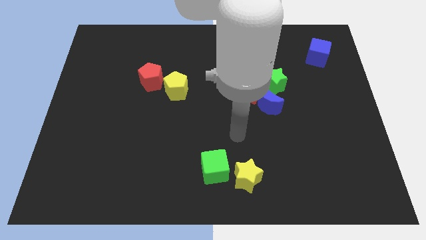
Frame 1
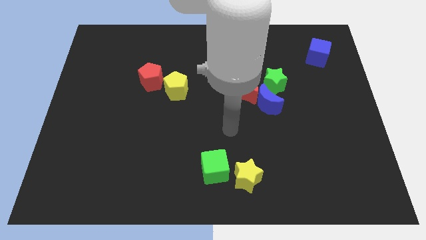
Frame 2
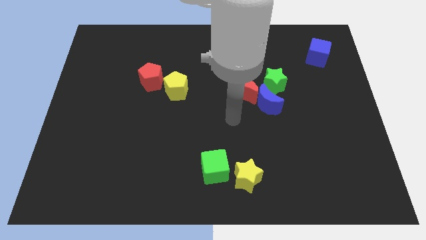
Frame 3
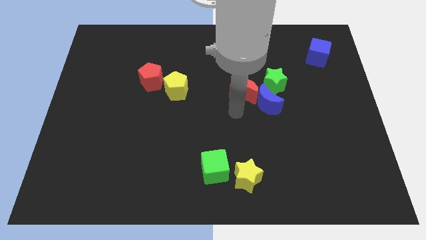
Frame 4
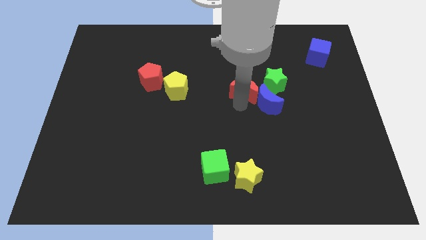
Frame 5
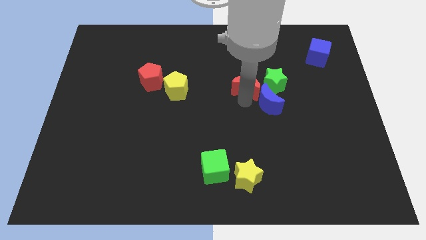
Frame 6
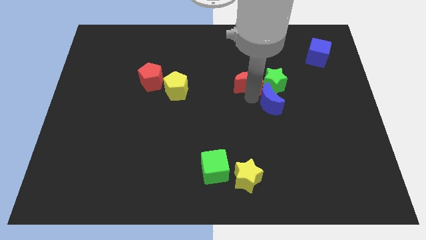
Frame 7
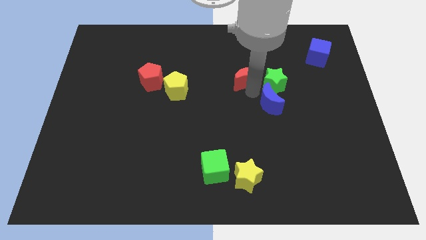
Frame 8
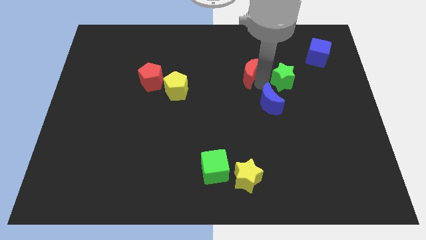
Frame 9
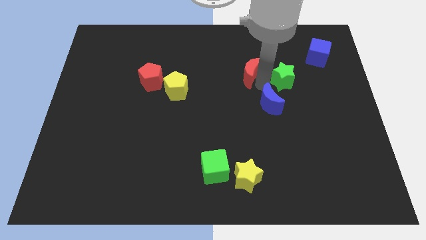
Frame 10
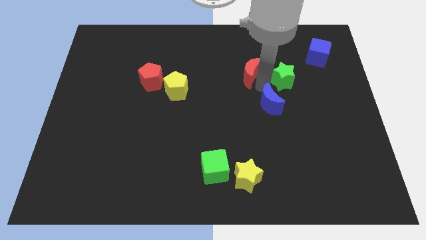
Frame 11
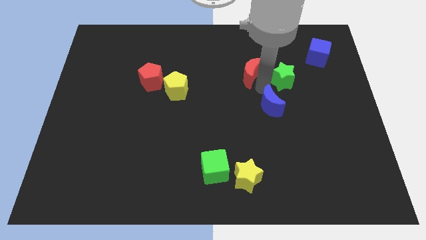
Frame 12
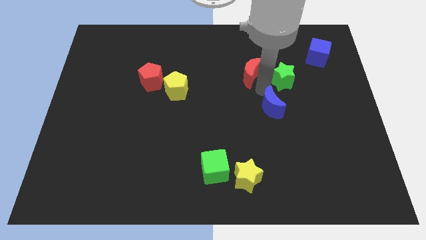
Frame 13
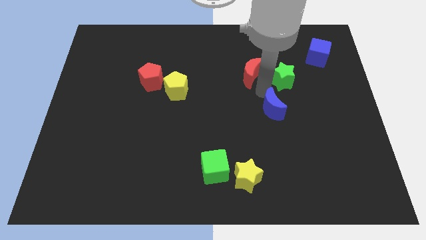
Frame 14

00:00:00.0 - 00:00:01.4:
move the blue moon away from the red moon and green star

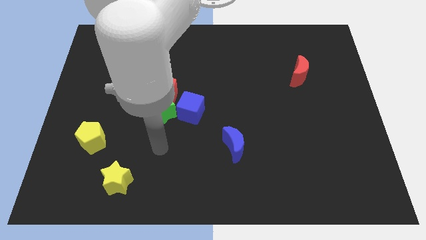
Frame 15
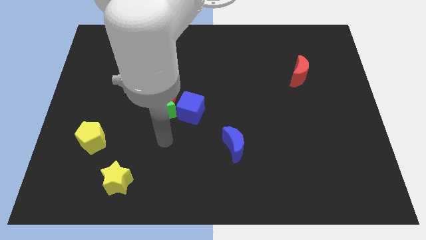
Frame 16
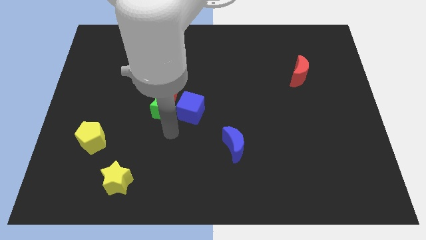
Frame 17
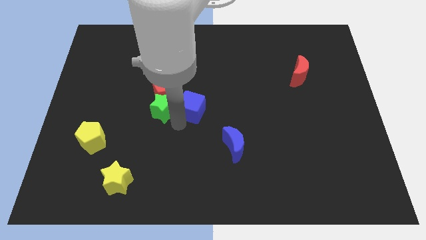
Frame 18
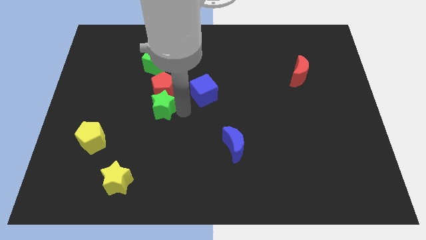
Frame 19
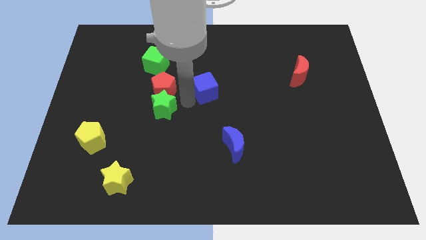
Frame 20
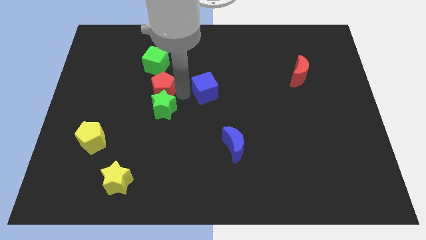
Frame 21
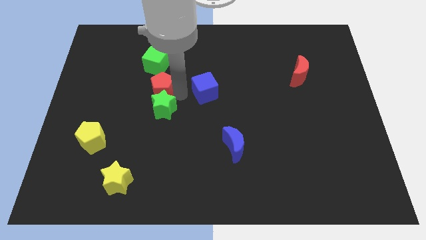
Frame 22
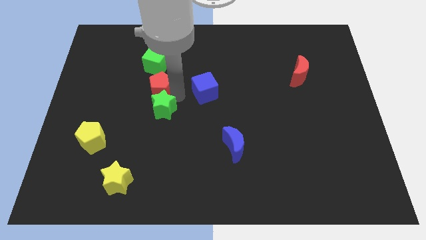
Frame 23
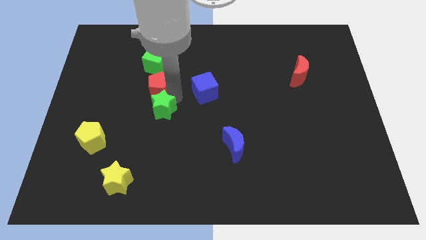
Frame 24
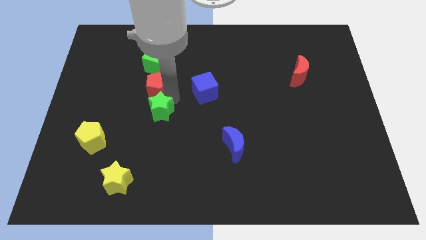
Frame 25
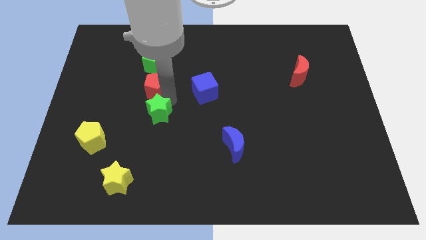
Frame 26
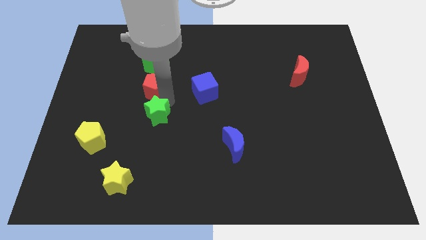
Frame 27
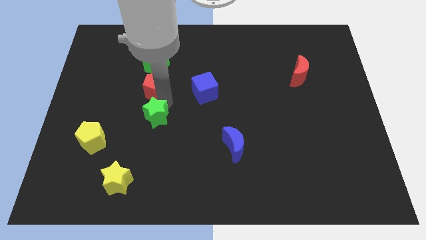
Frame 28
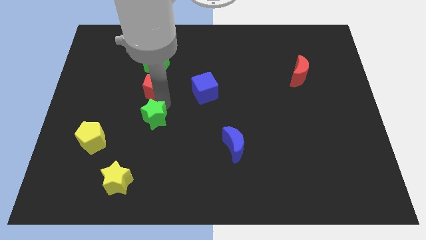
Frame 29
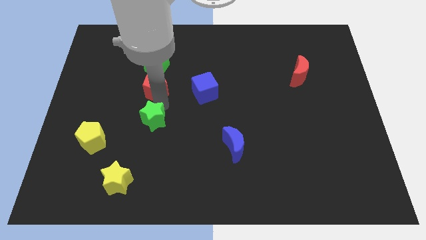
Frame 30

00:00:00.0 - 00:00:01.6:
pull the green star apart from the red pentagon and blue cube

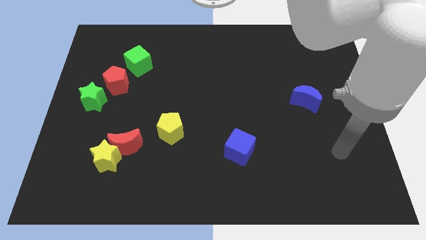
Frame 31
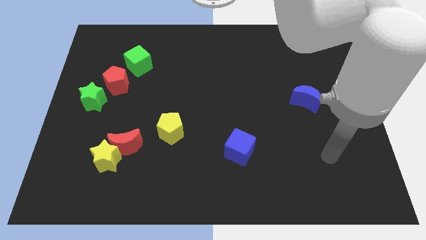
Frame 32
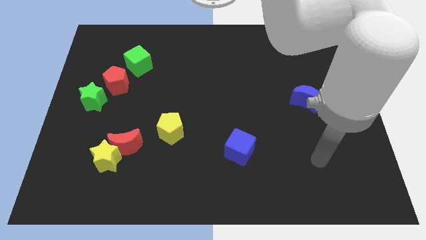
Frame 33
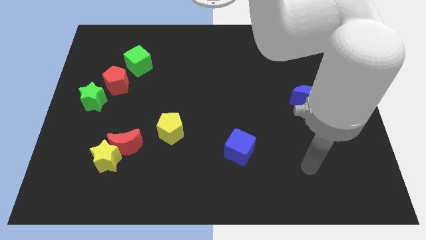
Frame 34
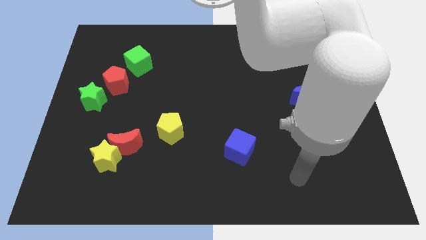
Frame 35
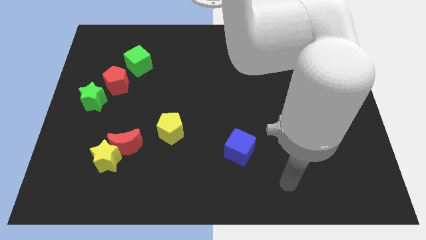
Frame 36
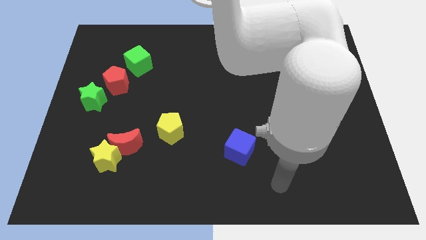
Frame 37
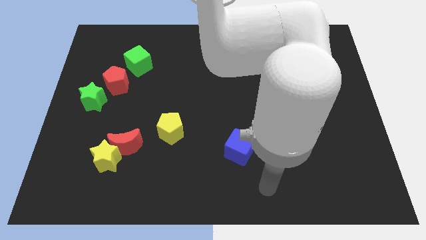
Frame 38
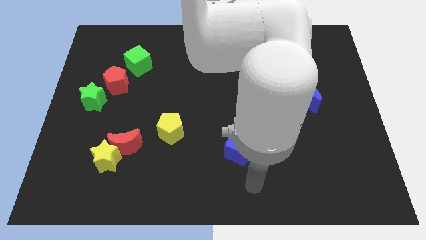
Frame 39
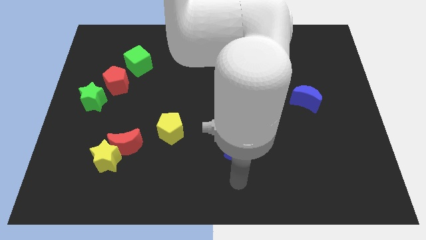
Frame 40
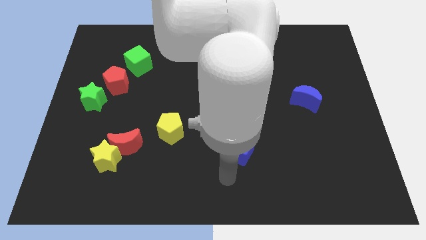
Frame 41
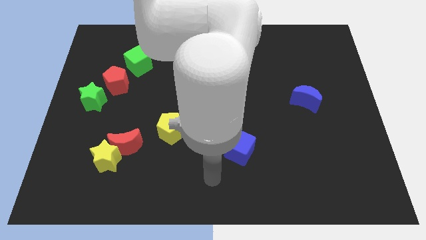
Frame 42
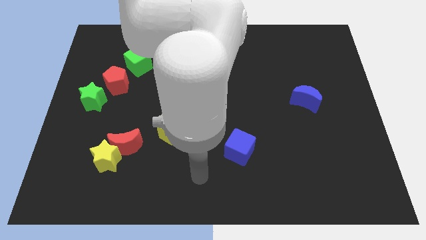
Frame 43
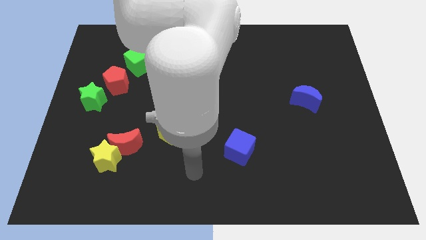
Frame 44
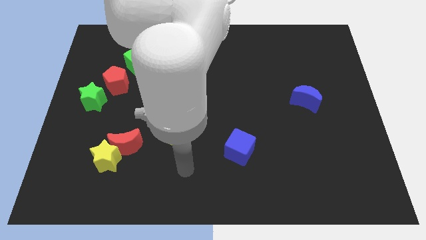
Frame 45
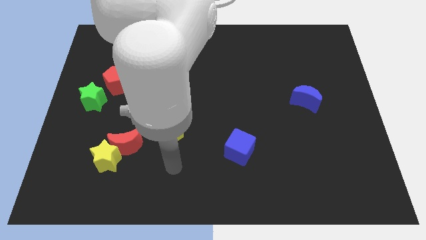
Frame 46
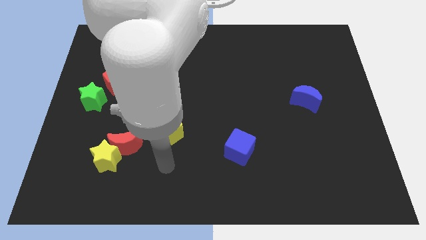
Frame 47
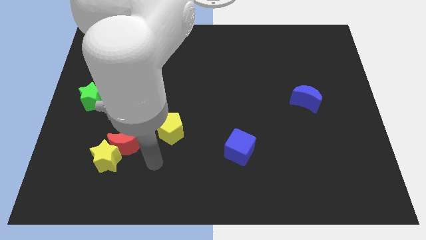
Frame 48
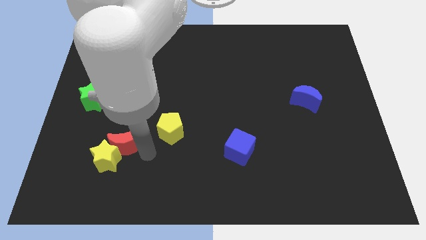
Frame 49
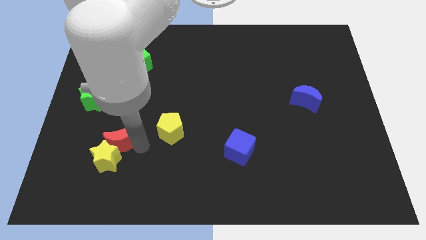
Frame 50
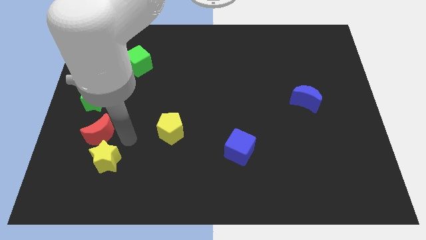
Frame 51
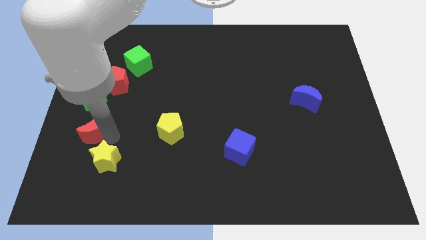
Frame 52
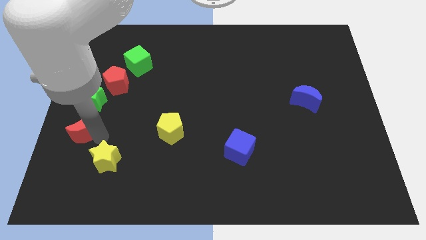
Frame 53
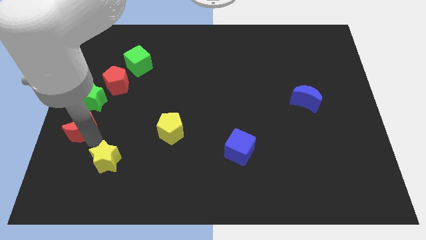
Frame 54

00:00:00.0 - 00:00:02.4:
separate the yellow star from the red moon

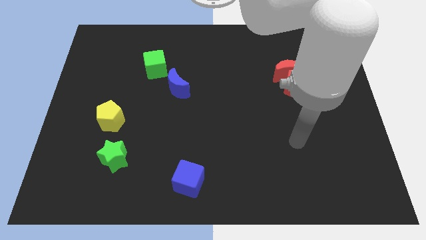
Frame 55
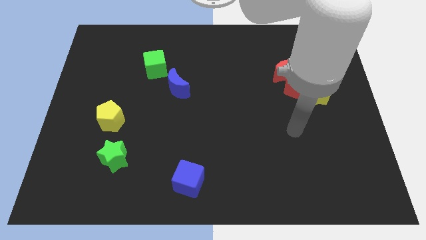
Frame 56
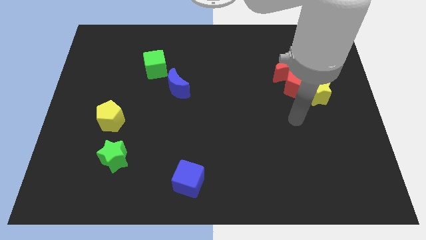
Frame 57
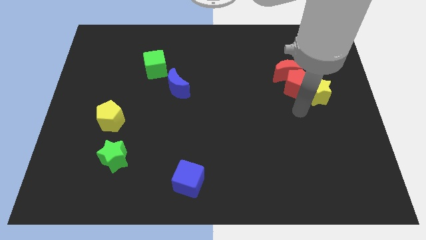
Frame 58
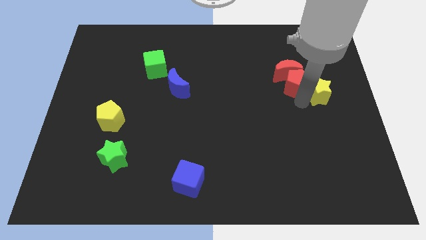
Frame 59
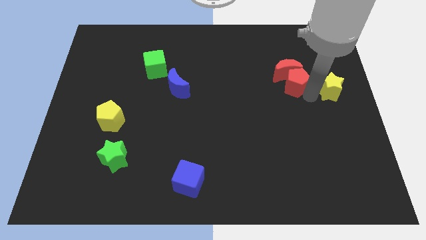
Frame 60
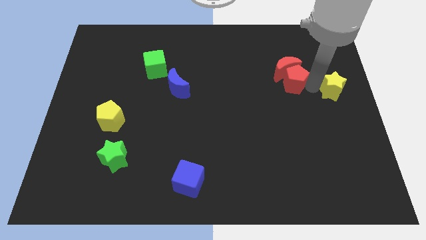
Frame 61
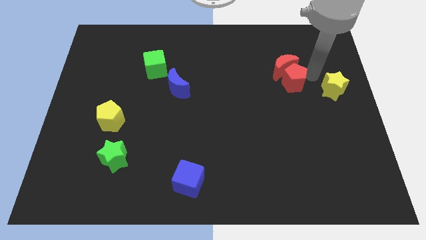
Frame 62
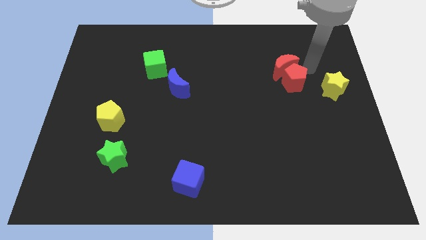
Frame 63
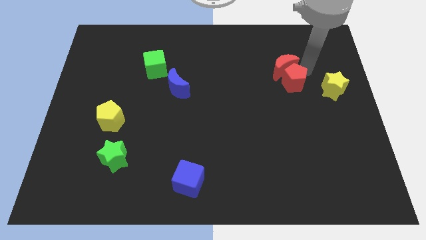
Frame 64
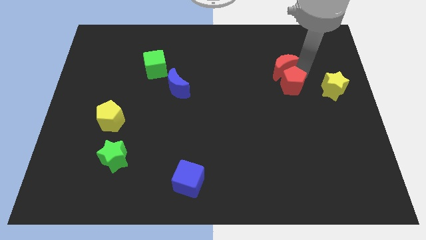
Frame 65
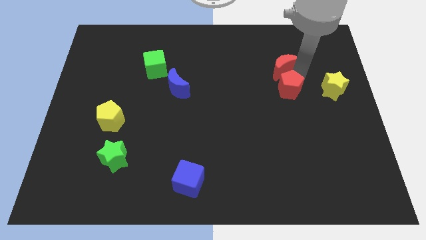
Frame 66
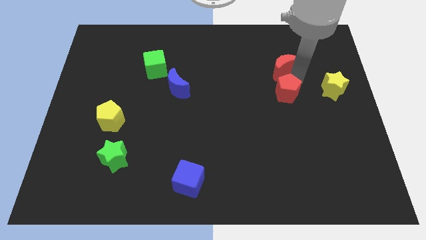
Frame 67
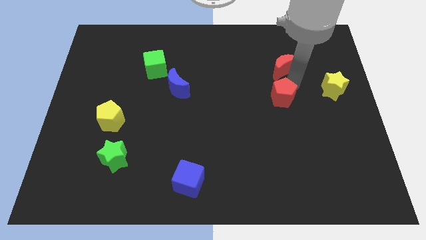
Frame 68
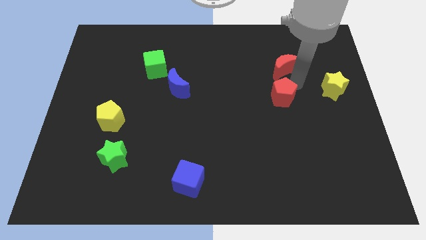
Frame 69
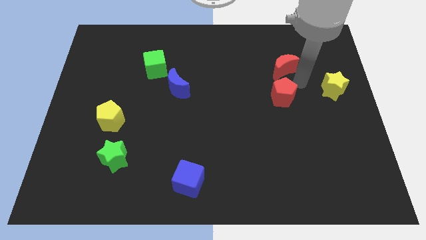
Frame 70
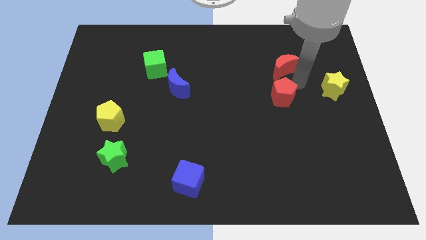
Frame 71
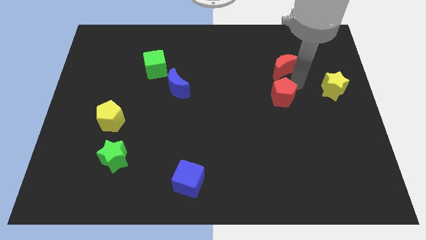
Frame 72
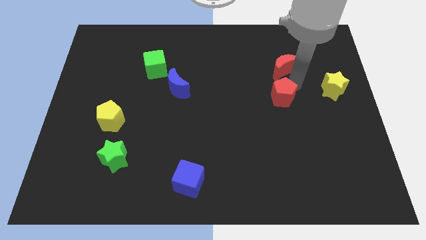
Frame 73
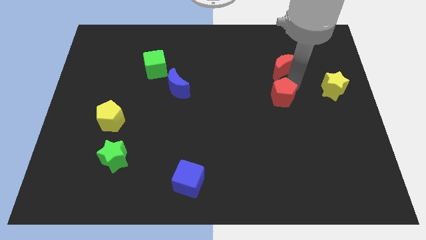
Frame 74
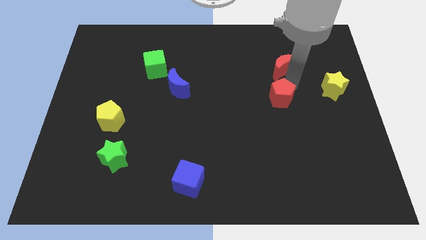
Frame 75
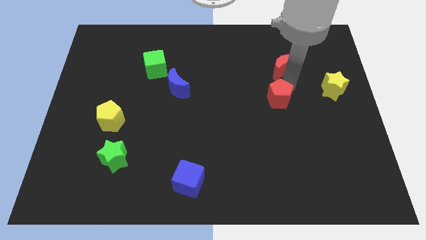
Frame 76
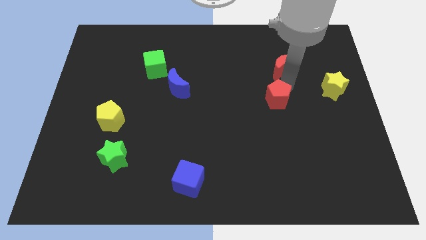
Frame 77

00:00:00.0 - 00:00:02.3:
pull the red pentagon apart from the red moon and yellow star

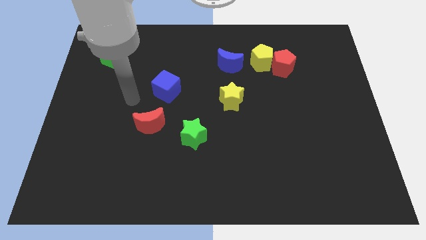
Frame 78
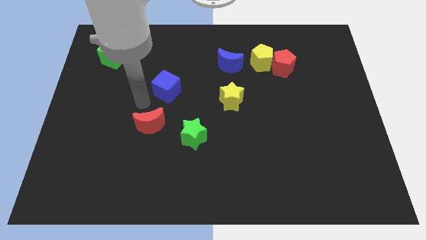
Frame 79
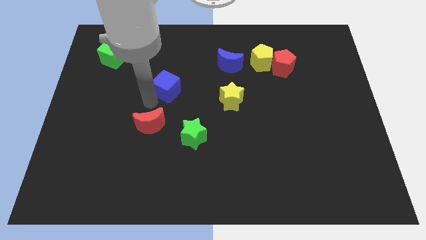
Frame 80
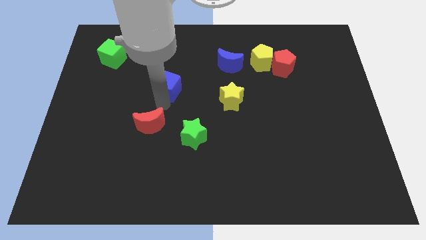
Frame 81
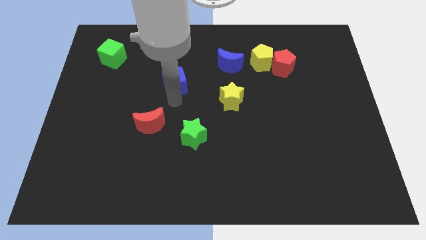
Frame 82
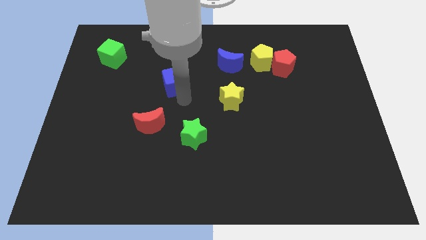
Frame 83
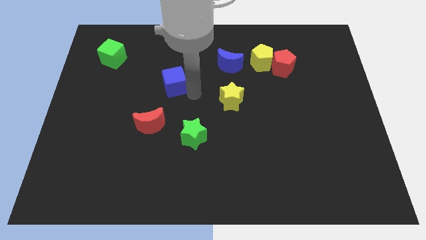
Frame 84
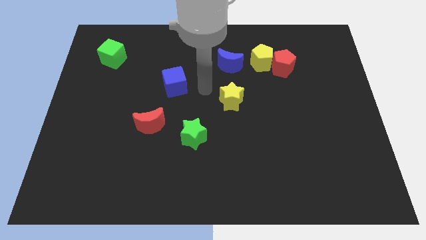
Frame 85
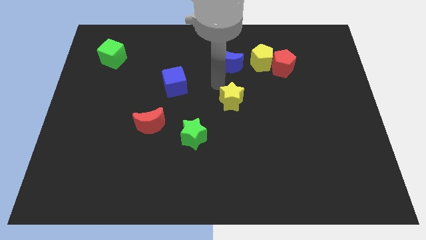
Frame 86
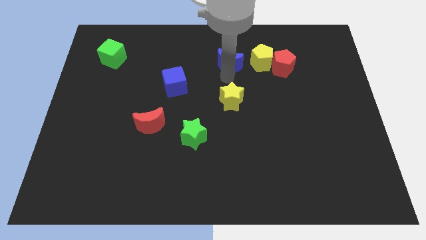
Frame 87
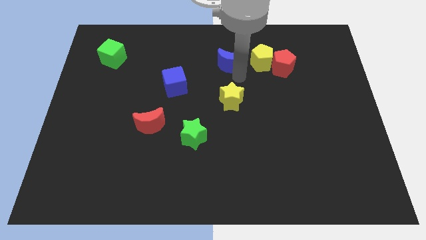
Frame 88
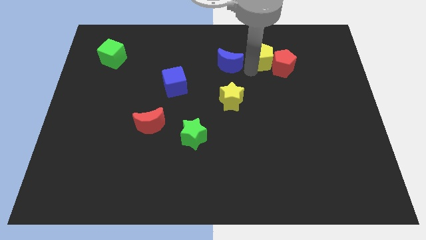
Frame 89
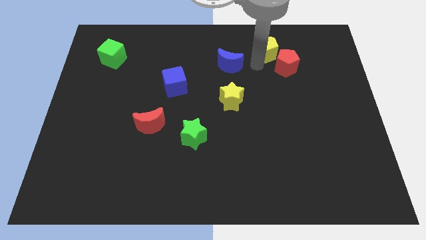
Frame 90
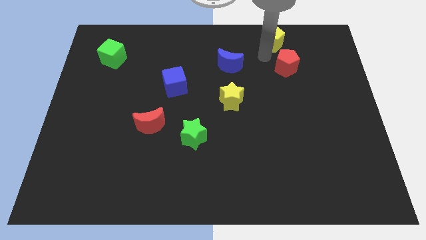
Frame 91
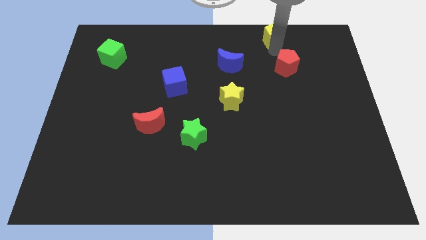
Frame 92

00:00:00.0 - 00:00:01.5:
pull the red pentagon apart from the yellow pentagon
